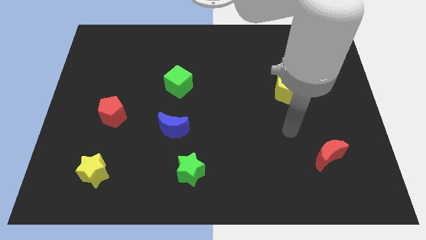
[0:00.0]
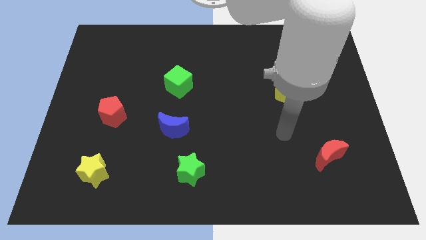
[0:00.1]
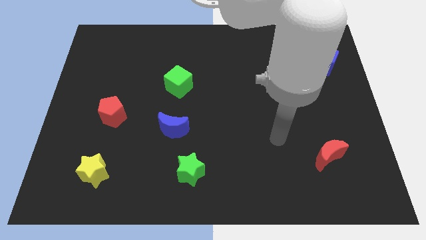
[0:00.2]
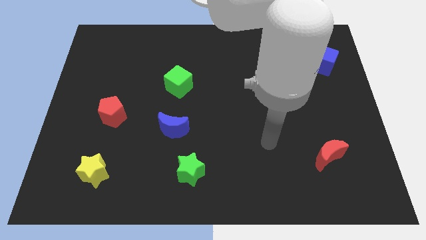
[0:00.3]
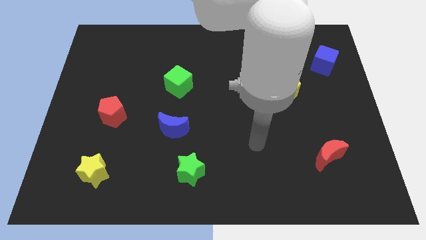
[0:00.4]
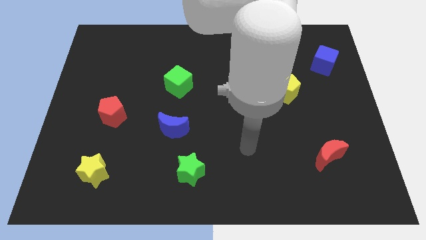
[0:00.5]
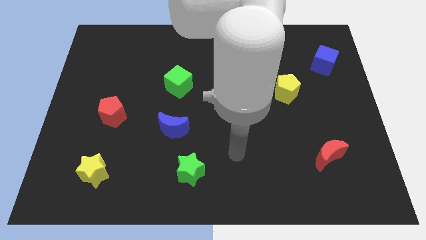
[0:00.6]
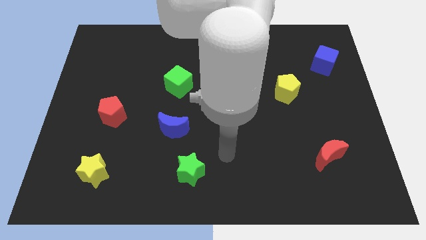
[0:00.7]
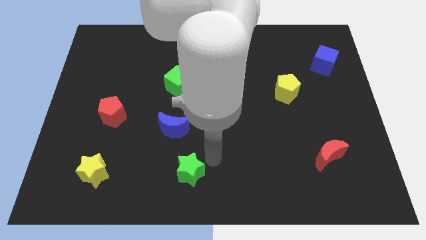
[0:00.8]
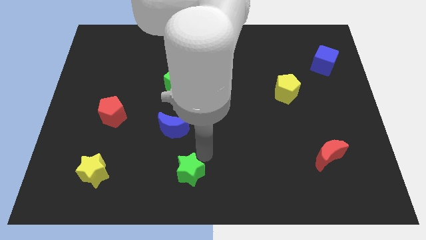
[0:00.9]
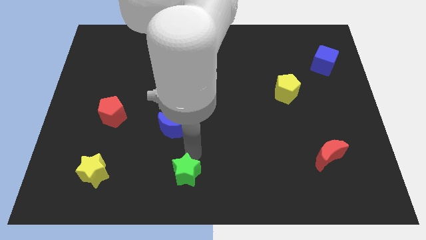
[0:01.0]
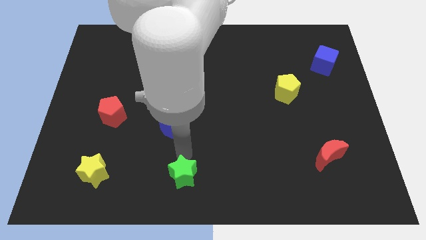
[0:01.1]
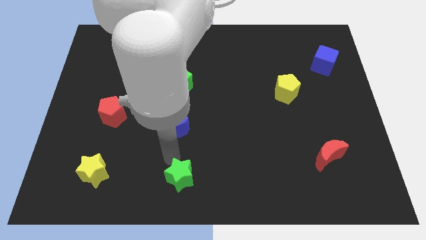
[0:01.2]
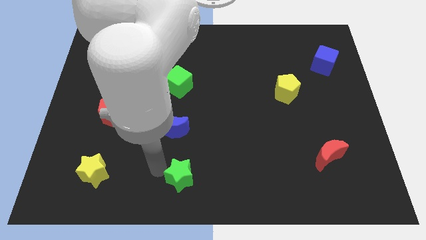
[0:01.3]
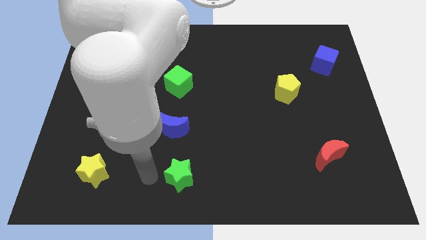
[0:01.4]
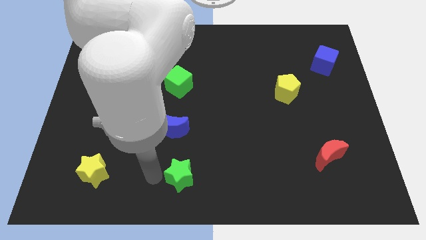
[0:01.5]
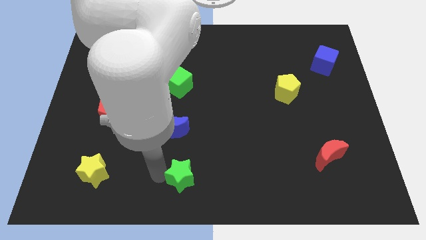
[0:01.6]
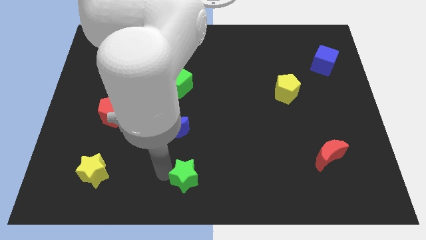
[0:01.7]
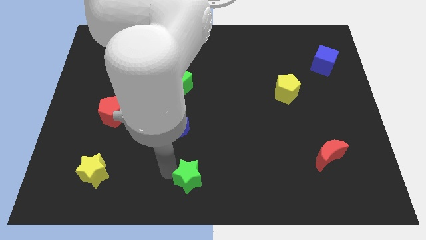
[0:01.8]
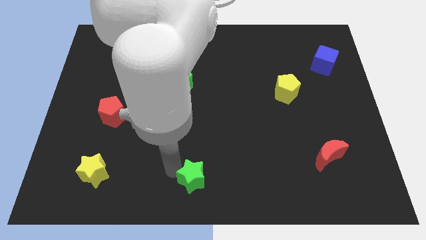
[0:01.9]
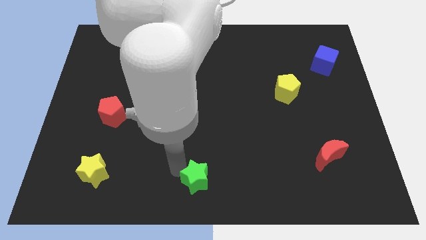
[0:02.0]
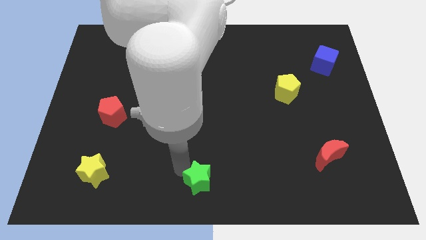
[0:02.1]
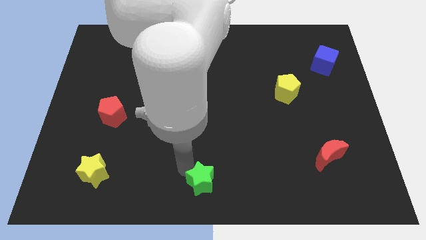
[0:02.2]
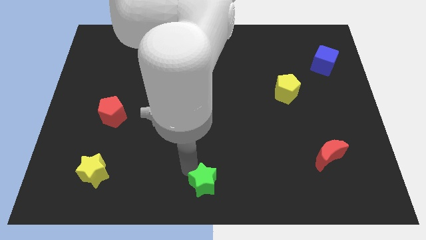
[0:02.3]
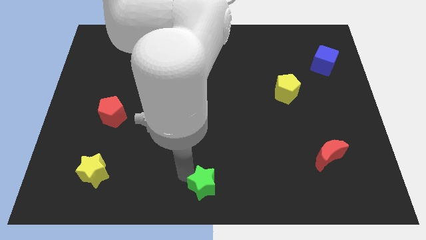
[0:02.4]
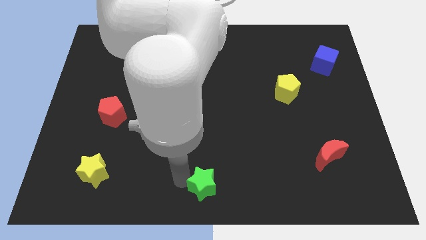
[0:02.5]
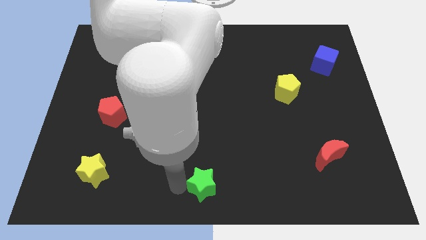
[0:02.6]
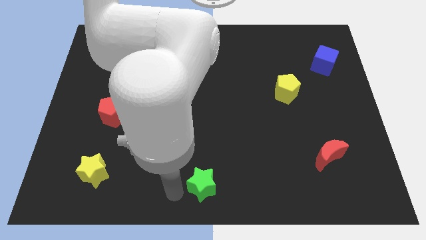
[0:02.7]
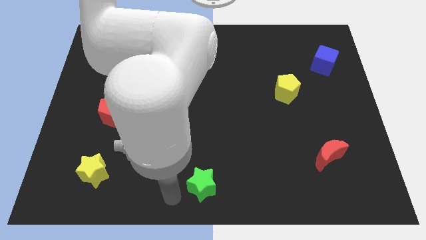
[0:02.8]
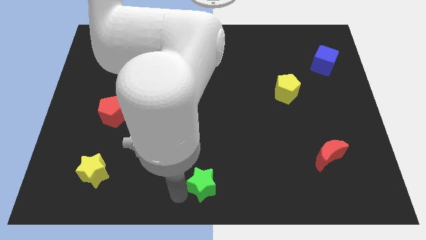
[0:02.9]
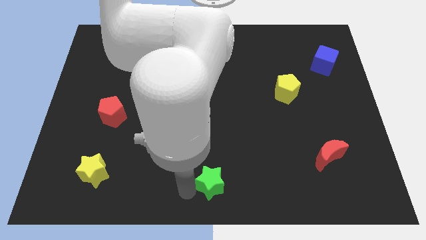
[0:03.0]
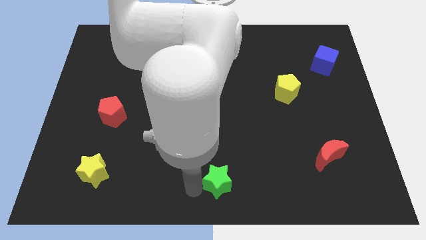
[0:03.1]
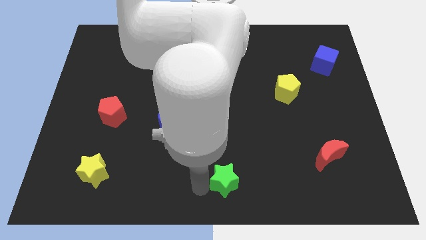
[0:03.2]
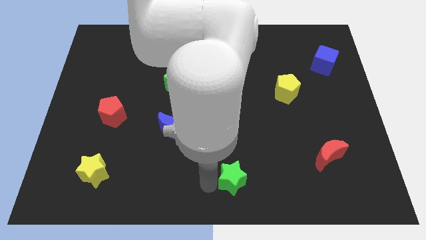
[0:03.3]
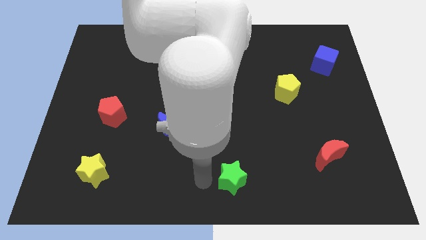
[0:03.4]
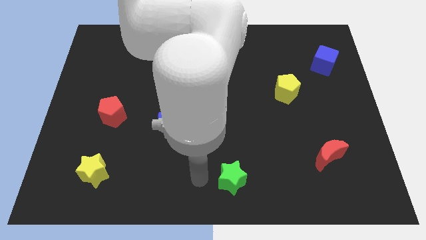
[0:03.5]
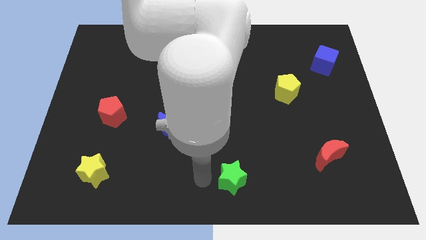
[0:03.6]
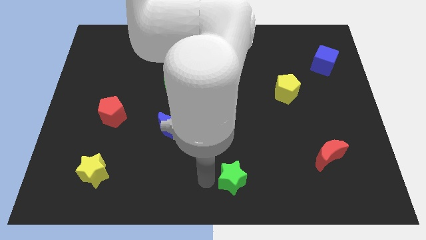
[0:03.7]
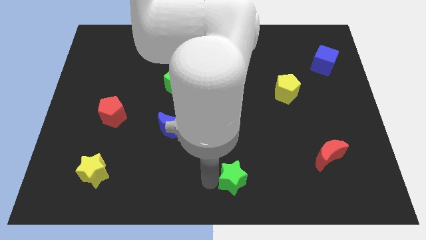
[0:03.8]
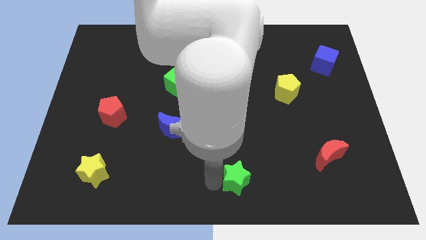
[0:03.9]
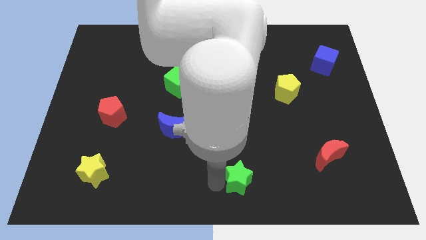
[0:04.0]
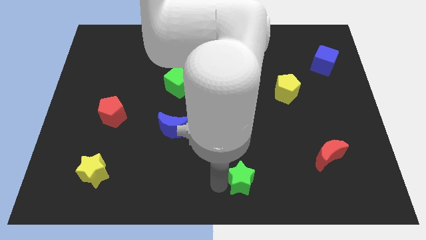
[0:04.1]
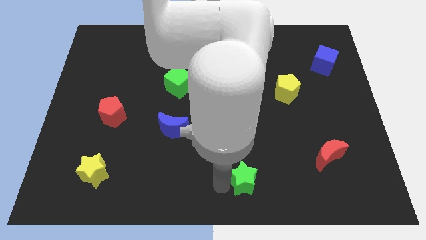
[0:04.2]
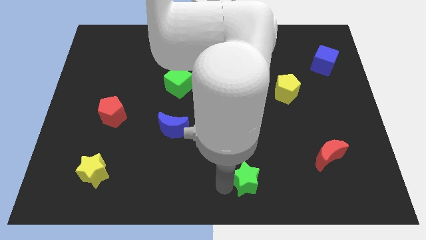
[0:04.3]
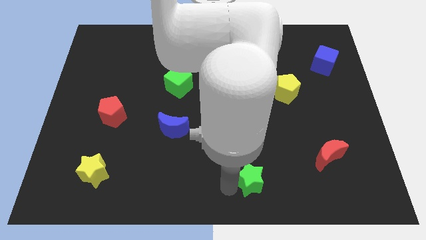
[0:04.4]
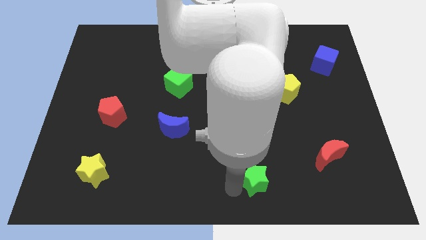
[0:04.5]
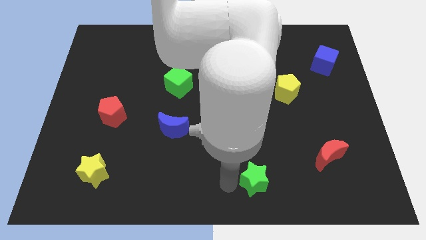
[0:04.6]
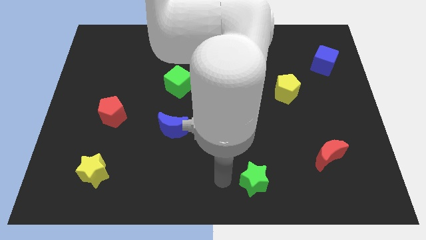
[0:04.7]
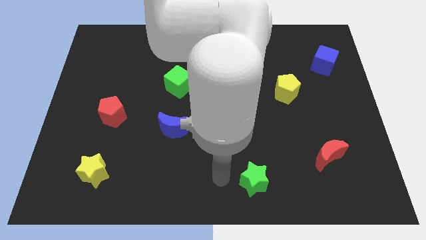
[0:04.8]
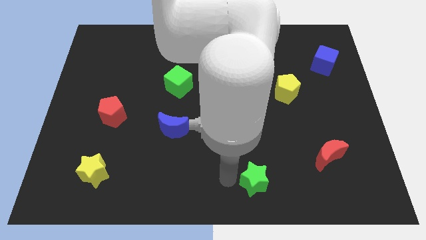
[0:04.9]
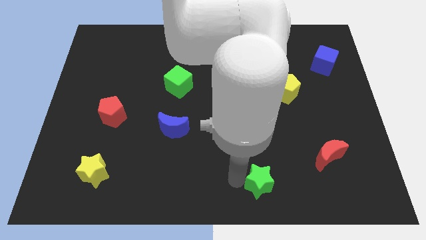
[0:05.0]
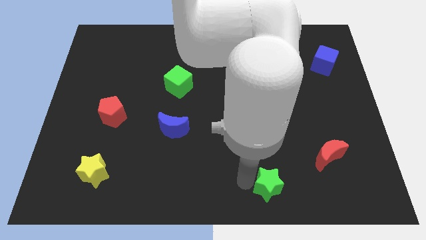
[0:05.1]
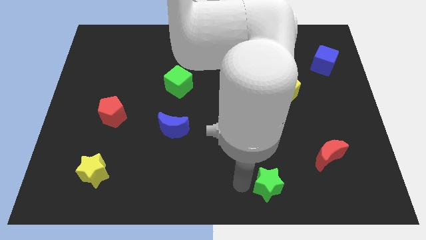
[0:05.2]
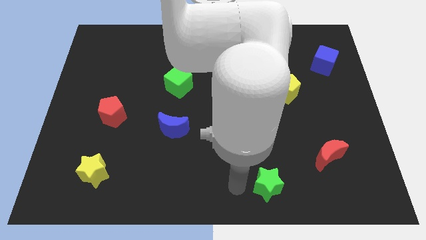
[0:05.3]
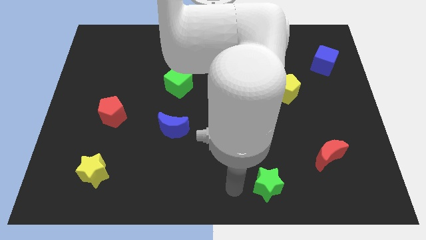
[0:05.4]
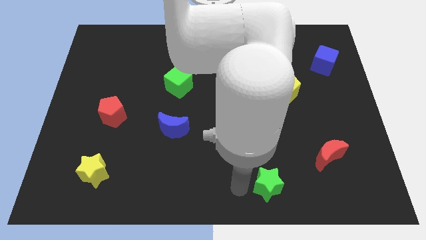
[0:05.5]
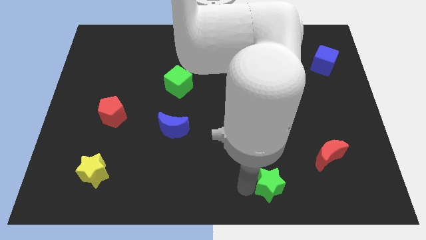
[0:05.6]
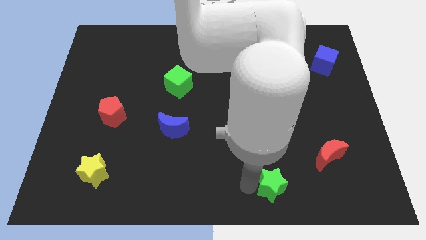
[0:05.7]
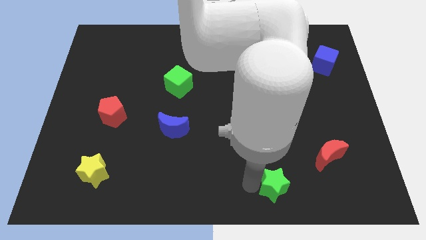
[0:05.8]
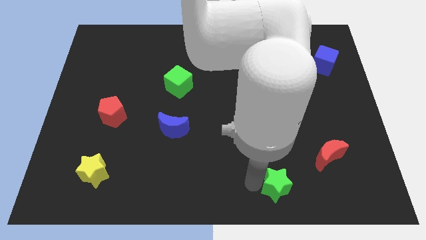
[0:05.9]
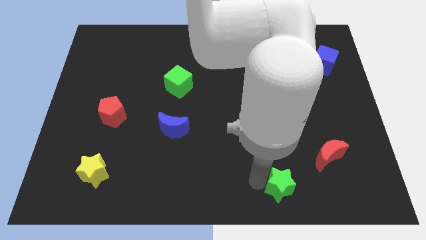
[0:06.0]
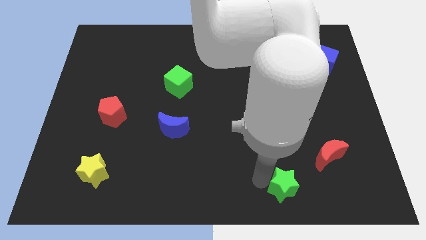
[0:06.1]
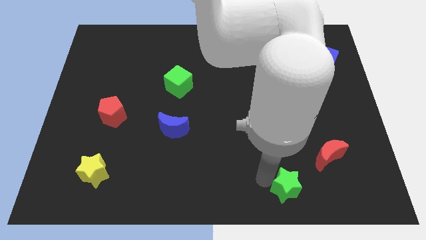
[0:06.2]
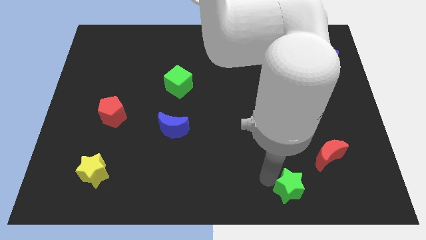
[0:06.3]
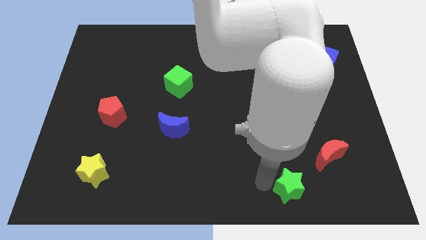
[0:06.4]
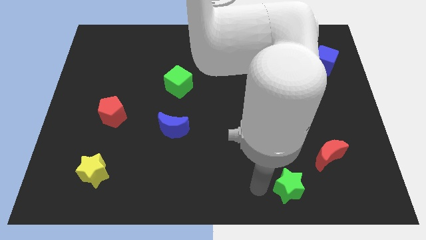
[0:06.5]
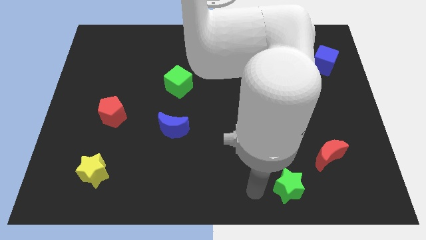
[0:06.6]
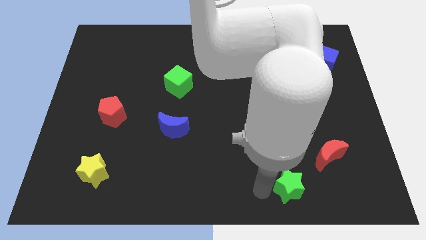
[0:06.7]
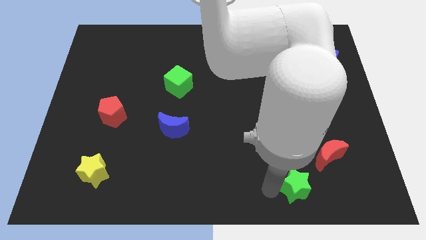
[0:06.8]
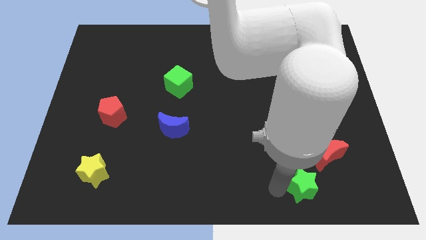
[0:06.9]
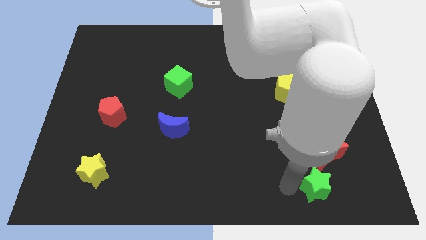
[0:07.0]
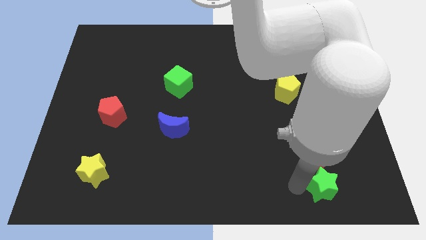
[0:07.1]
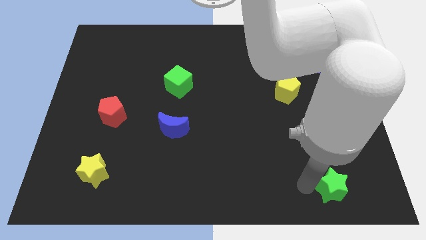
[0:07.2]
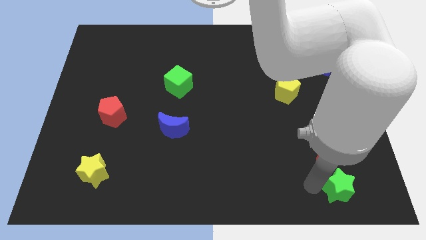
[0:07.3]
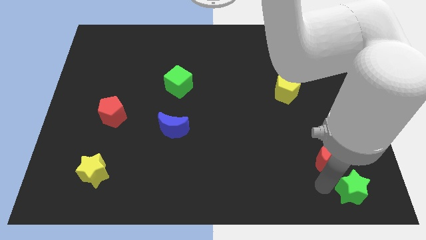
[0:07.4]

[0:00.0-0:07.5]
push the green star to the lower right corner
